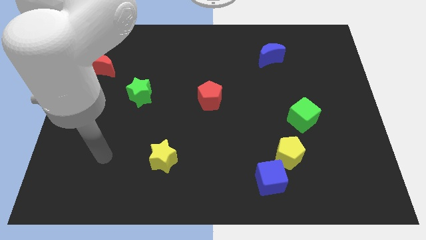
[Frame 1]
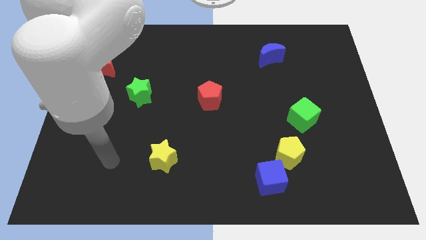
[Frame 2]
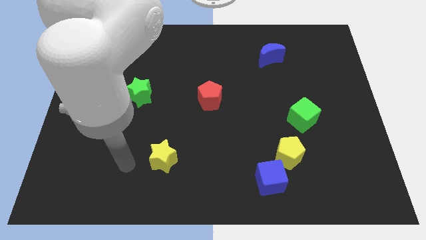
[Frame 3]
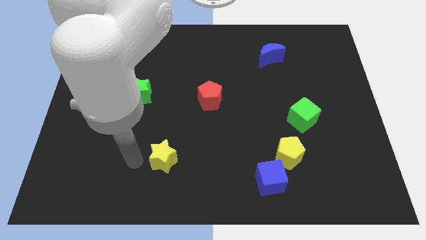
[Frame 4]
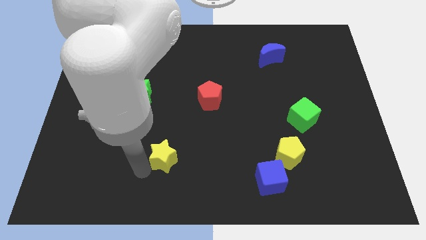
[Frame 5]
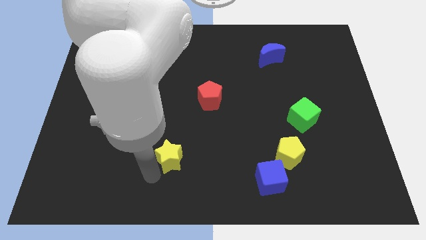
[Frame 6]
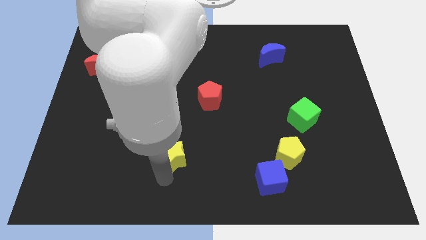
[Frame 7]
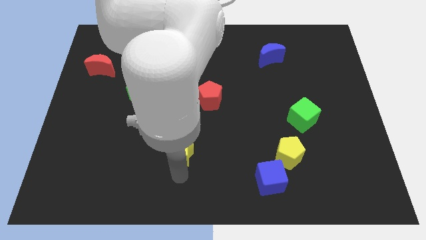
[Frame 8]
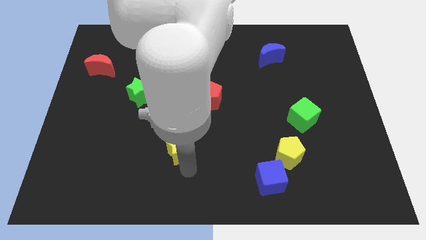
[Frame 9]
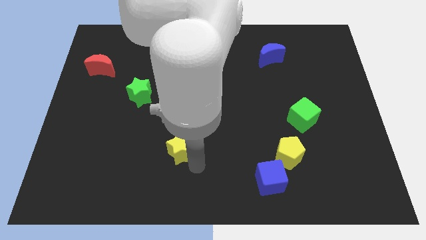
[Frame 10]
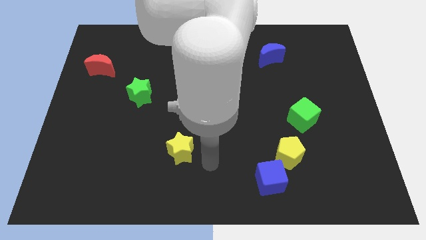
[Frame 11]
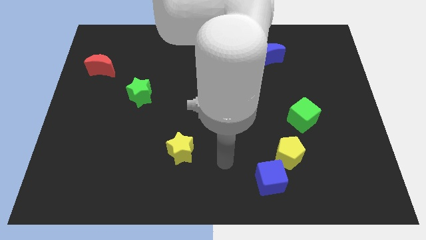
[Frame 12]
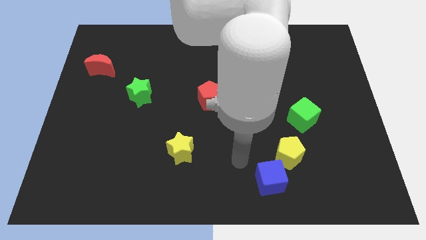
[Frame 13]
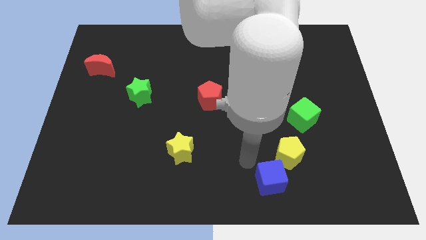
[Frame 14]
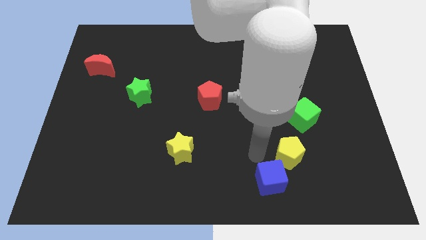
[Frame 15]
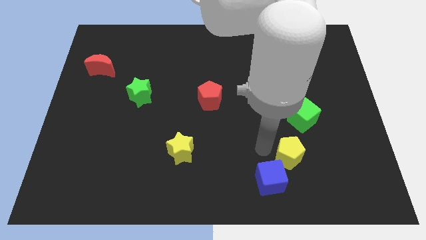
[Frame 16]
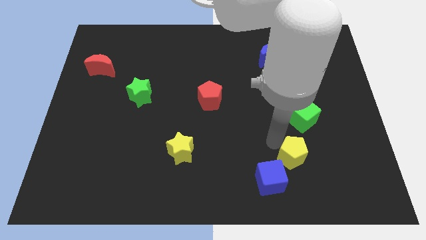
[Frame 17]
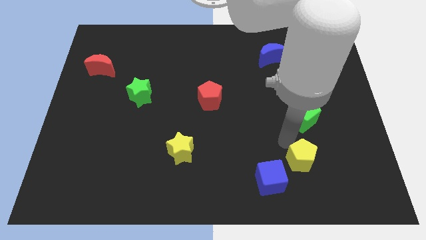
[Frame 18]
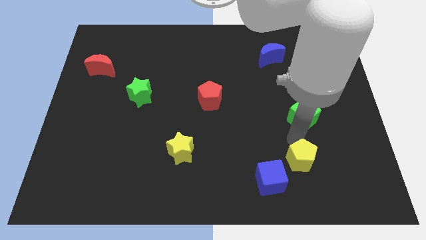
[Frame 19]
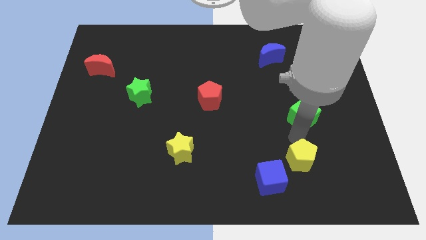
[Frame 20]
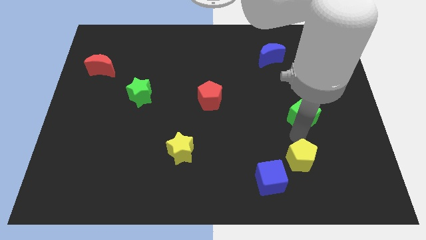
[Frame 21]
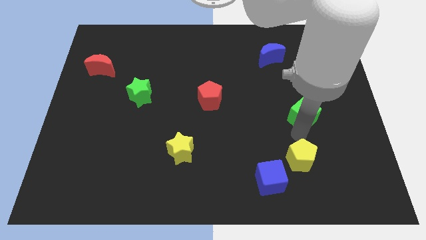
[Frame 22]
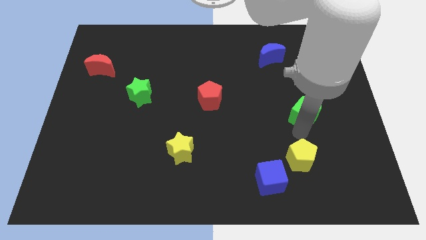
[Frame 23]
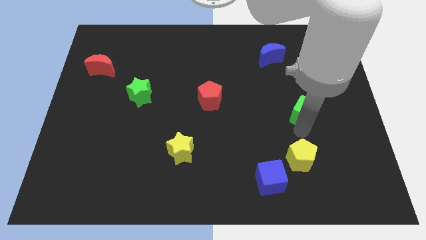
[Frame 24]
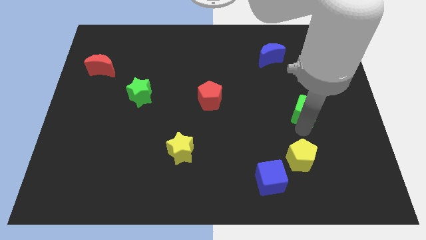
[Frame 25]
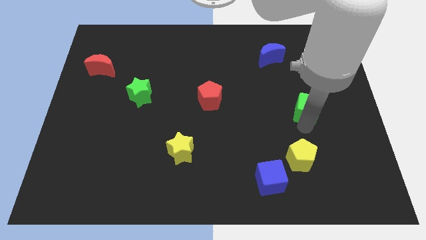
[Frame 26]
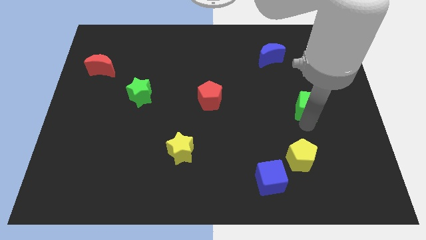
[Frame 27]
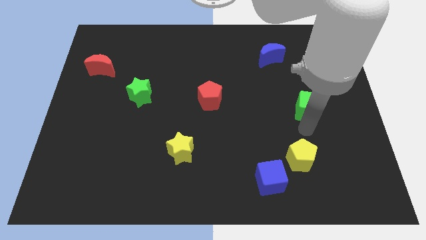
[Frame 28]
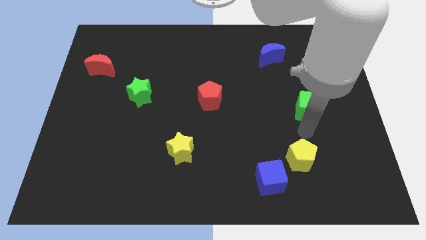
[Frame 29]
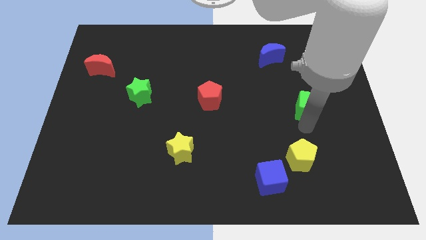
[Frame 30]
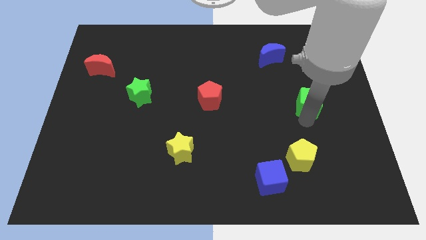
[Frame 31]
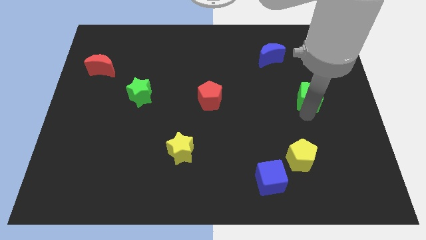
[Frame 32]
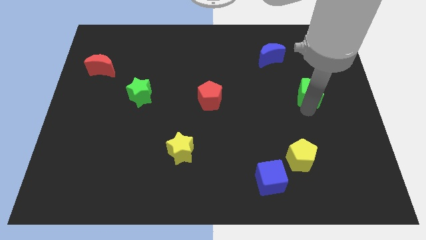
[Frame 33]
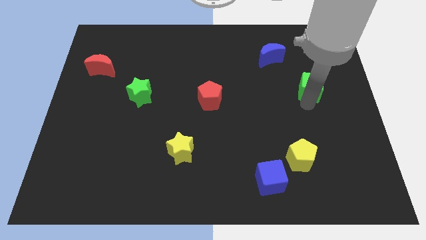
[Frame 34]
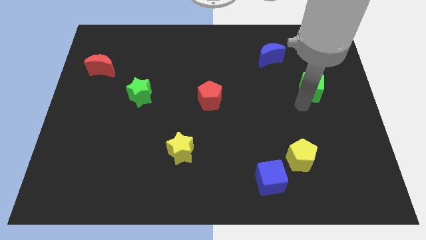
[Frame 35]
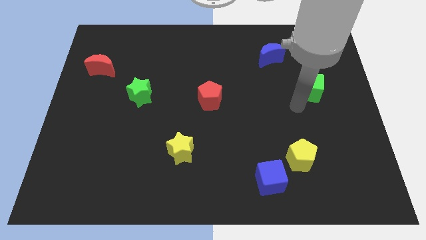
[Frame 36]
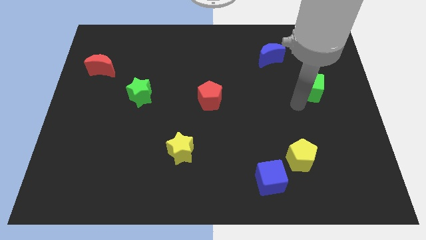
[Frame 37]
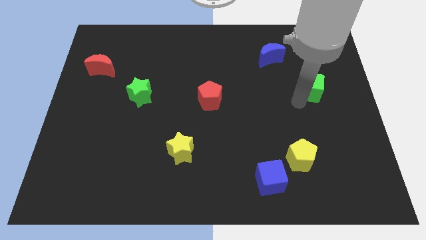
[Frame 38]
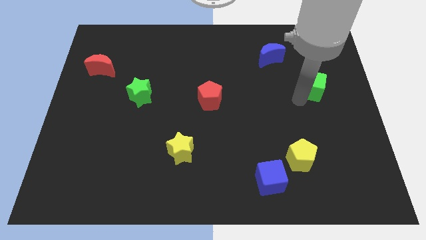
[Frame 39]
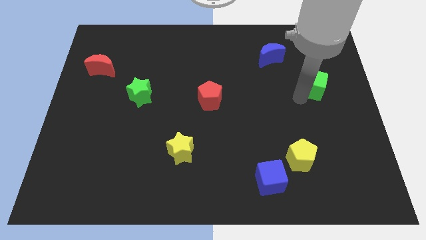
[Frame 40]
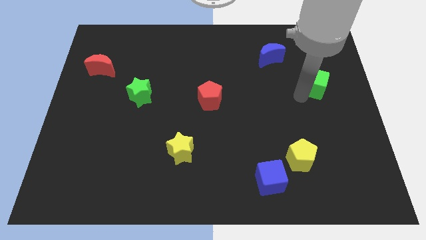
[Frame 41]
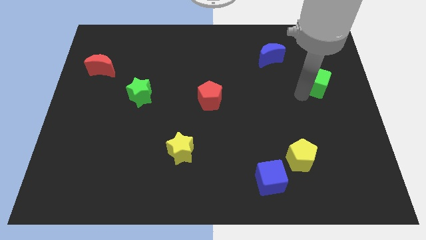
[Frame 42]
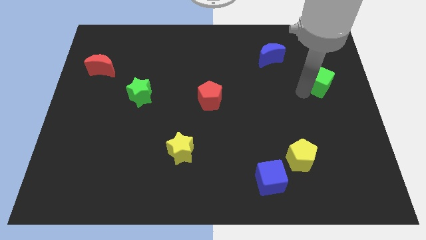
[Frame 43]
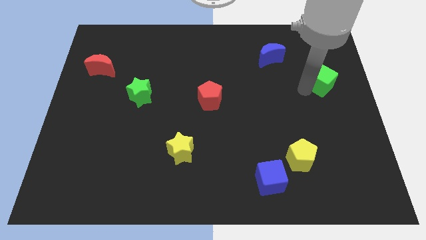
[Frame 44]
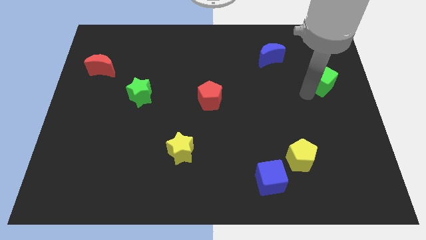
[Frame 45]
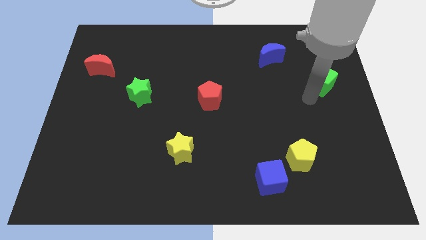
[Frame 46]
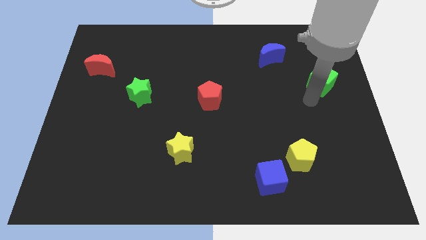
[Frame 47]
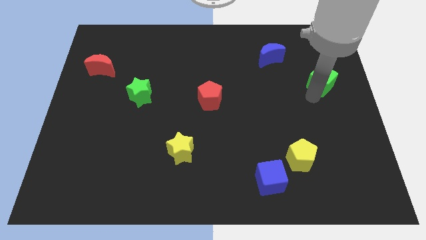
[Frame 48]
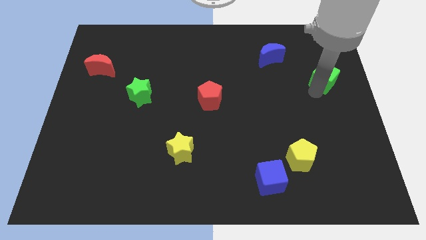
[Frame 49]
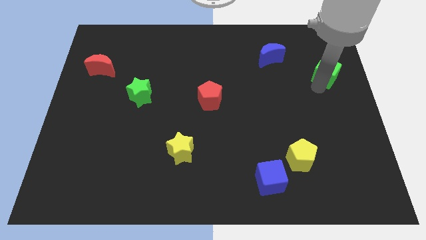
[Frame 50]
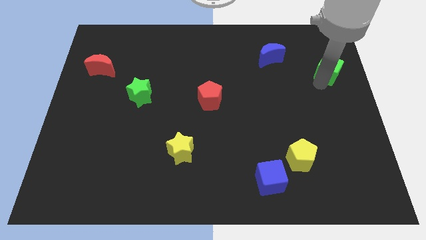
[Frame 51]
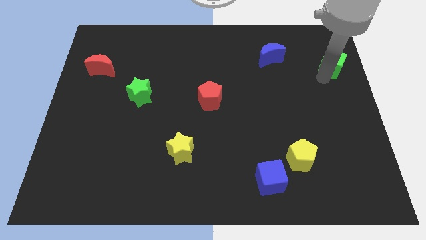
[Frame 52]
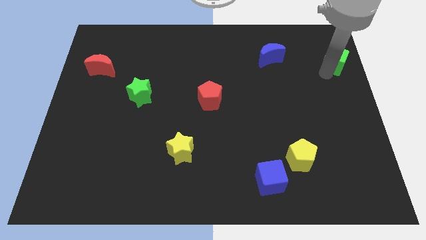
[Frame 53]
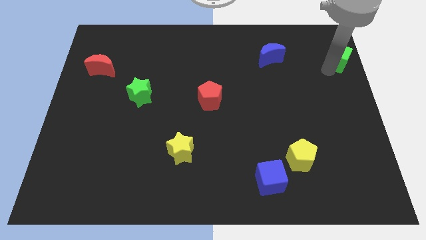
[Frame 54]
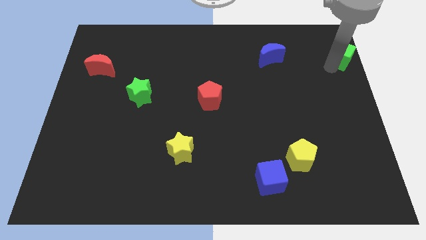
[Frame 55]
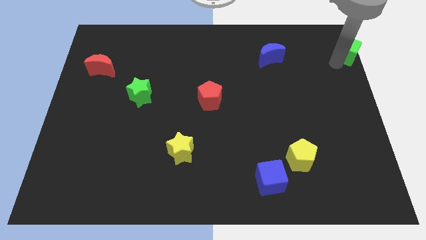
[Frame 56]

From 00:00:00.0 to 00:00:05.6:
push the green cube to the top right
